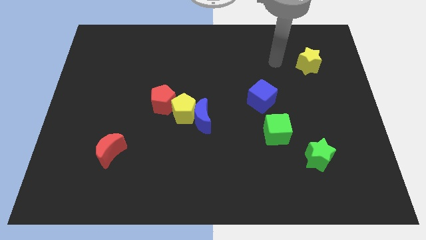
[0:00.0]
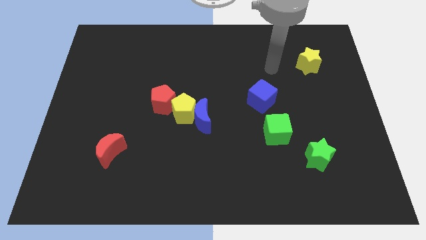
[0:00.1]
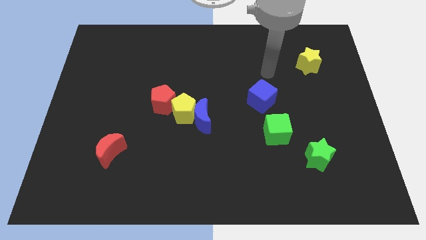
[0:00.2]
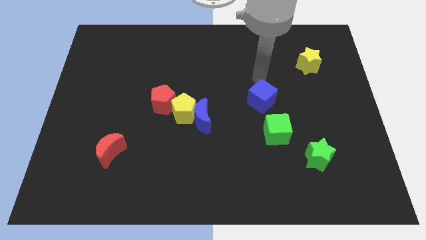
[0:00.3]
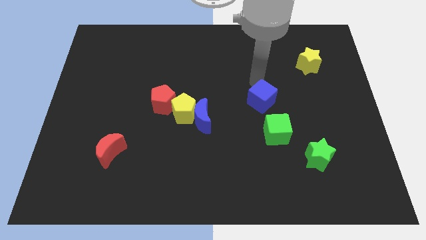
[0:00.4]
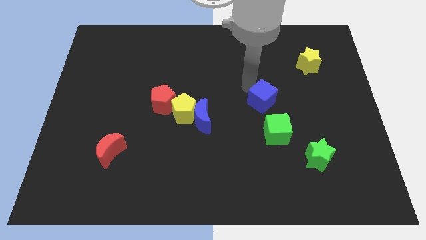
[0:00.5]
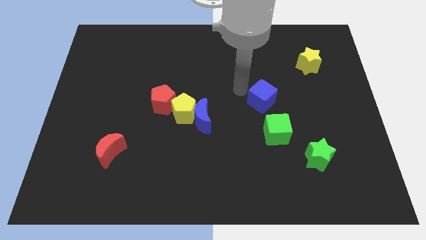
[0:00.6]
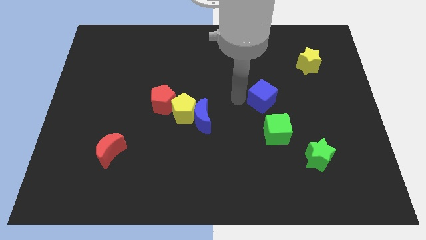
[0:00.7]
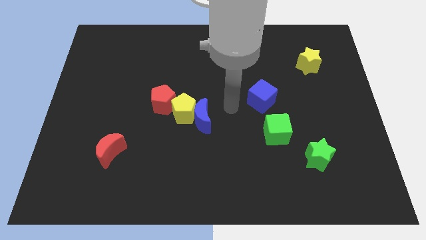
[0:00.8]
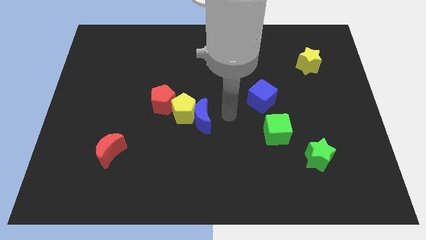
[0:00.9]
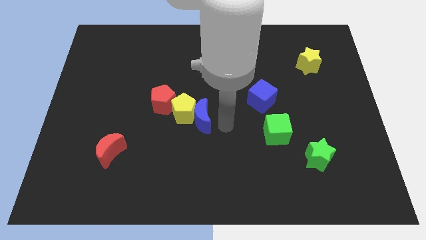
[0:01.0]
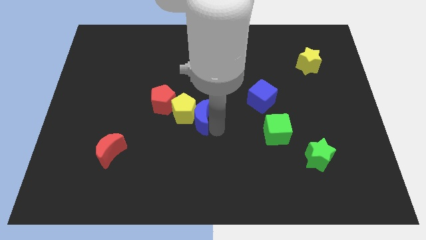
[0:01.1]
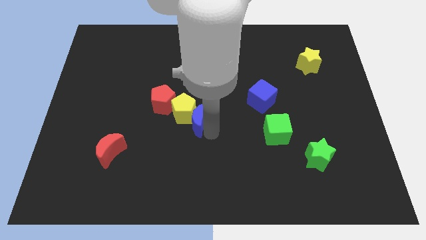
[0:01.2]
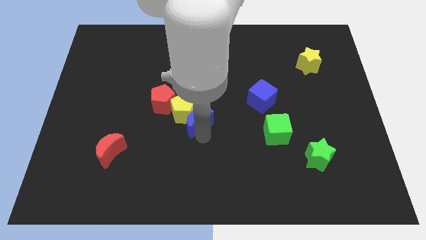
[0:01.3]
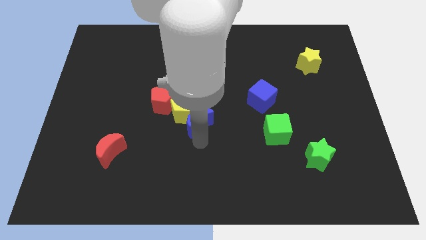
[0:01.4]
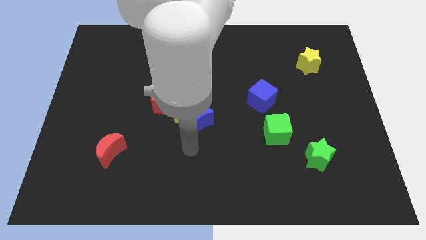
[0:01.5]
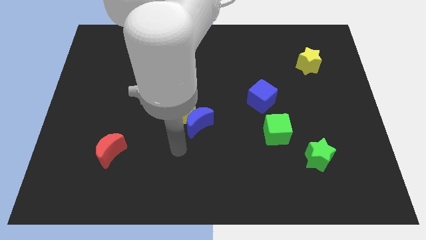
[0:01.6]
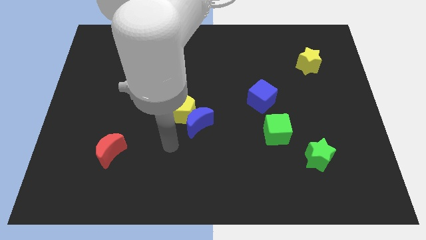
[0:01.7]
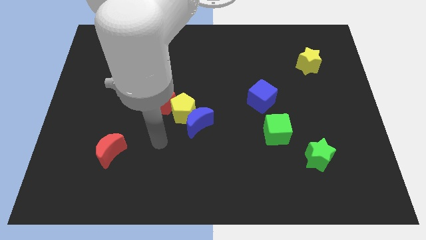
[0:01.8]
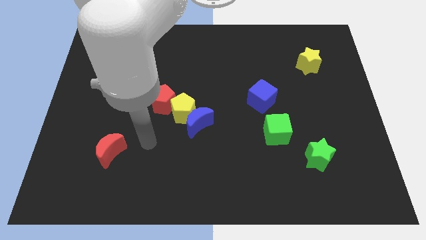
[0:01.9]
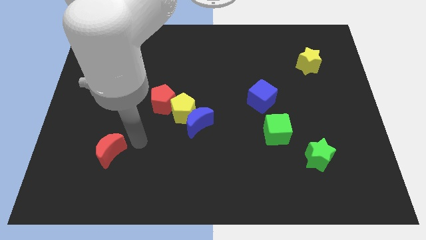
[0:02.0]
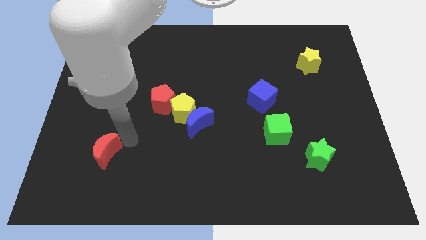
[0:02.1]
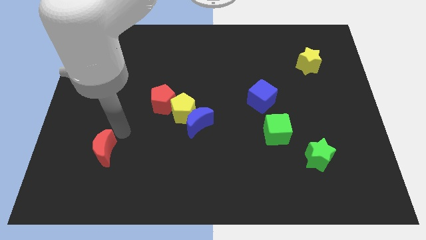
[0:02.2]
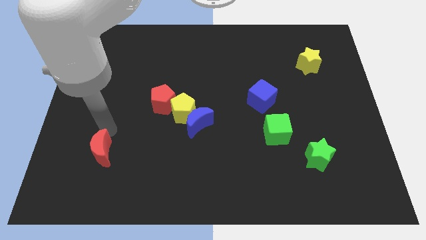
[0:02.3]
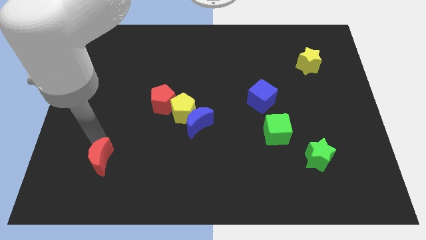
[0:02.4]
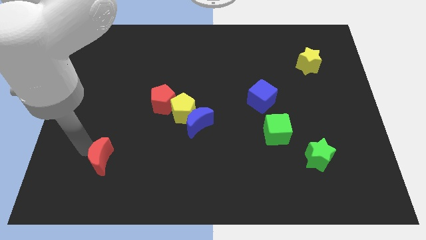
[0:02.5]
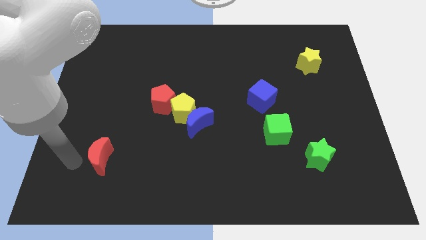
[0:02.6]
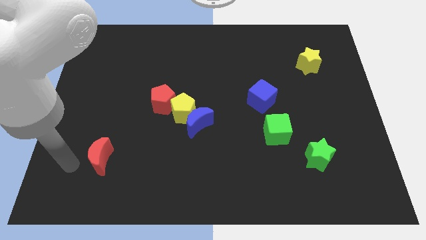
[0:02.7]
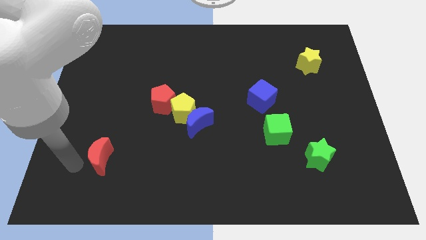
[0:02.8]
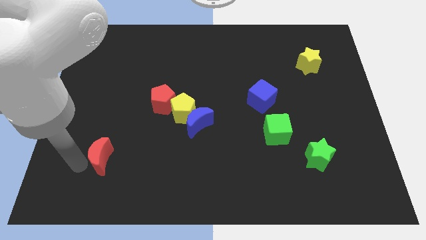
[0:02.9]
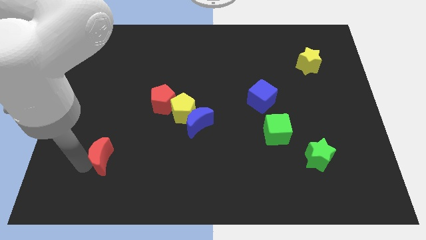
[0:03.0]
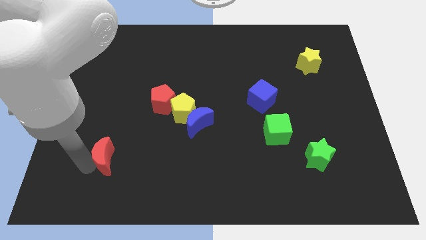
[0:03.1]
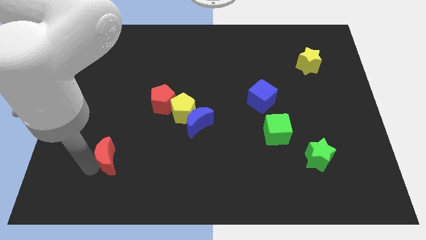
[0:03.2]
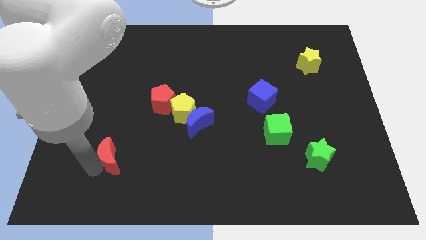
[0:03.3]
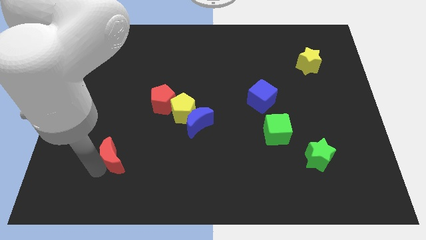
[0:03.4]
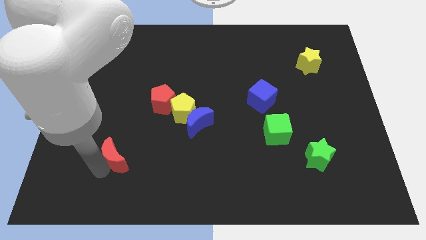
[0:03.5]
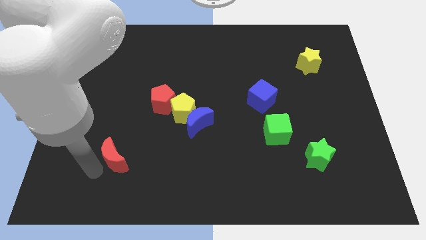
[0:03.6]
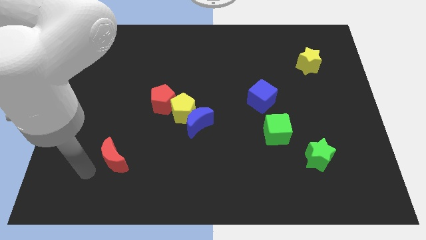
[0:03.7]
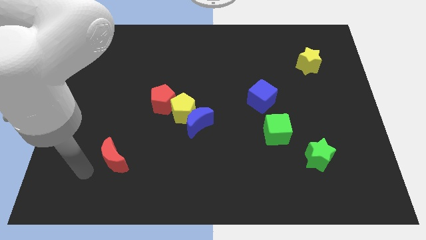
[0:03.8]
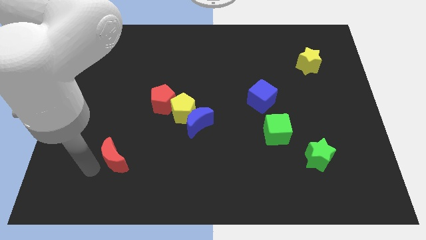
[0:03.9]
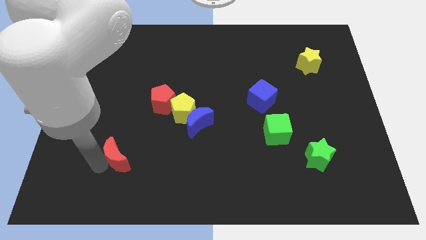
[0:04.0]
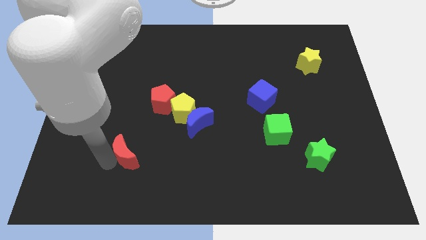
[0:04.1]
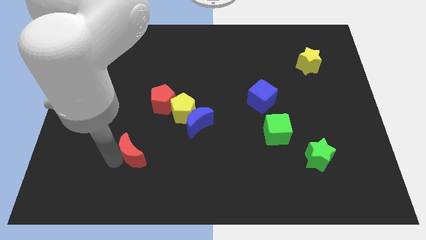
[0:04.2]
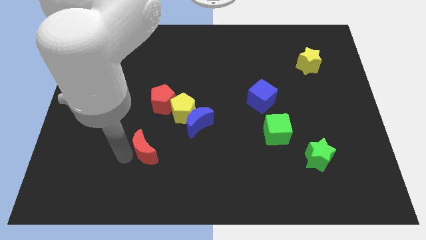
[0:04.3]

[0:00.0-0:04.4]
move the red moon to the right somewhat

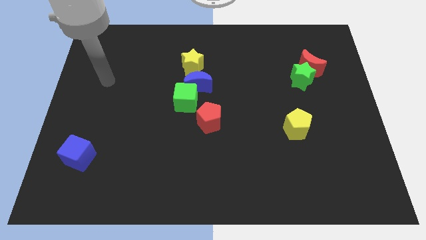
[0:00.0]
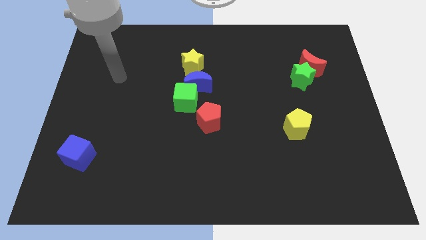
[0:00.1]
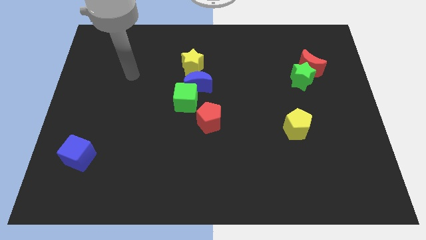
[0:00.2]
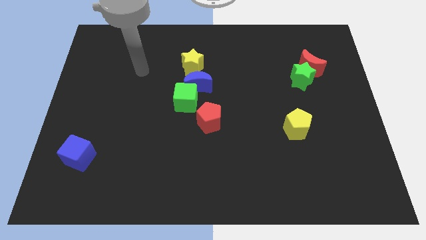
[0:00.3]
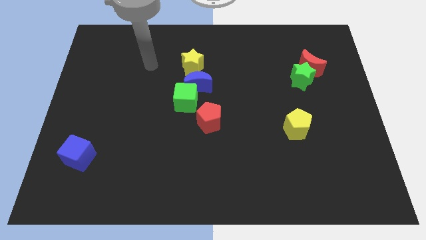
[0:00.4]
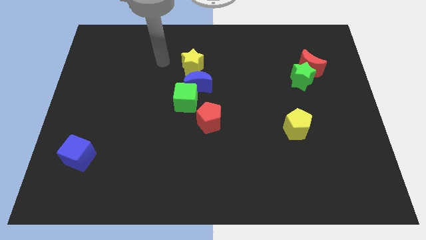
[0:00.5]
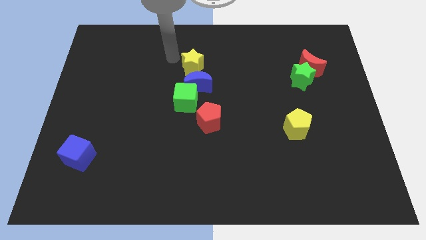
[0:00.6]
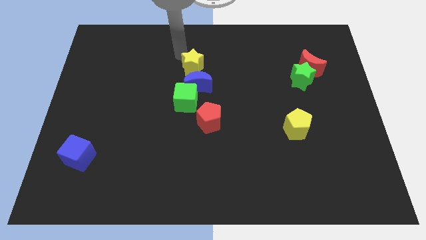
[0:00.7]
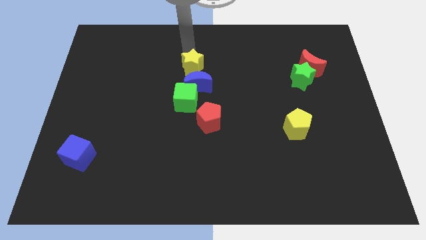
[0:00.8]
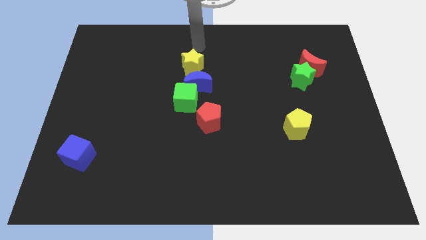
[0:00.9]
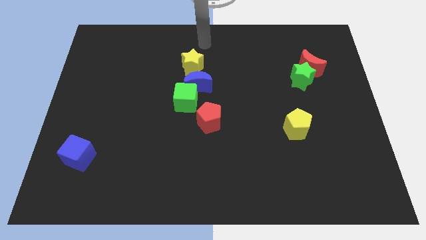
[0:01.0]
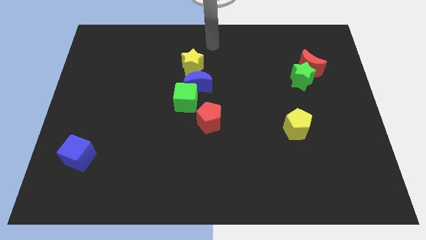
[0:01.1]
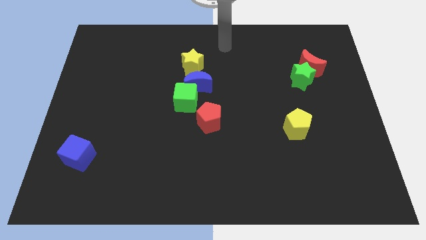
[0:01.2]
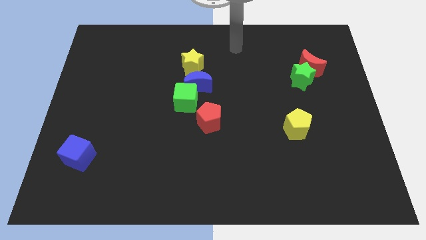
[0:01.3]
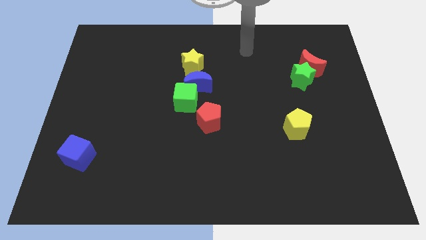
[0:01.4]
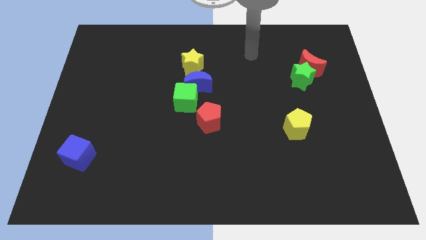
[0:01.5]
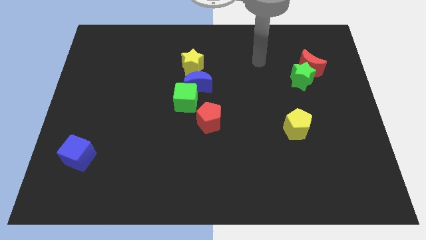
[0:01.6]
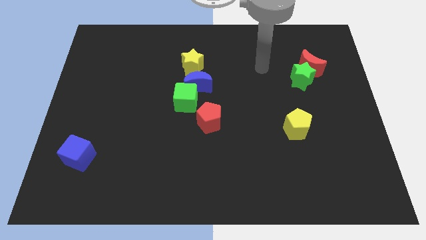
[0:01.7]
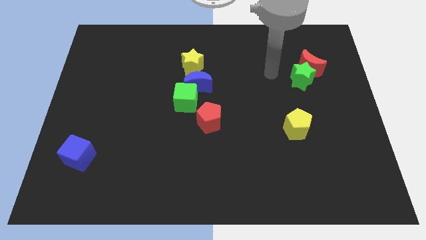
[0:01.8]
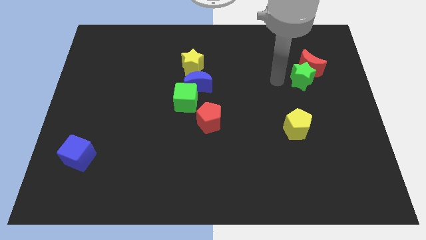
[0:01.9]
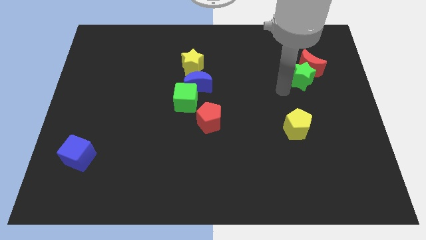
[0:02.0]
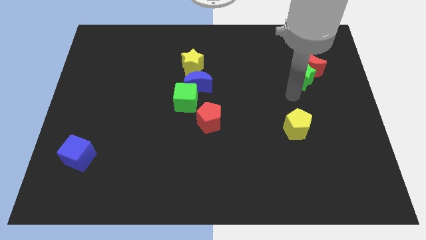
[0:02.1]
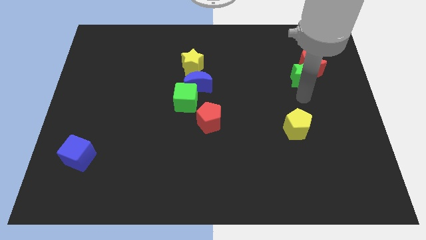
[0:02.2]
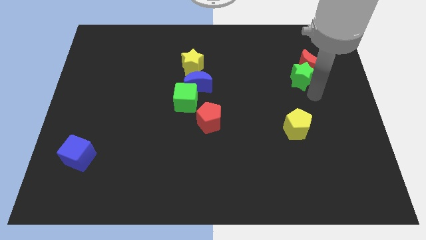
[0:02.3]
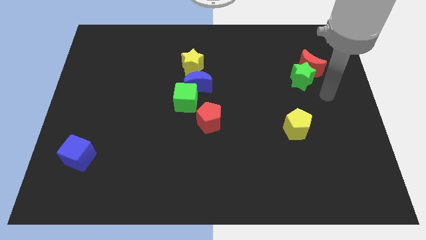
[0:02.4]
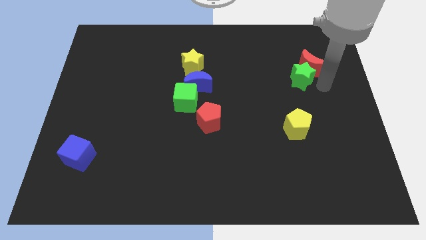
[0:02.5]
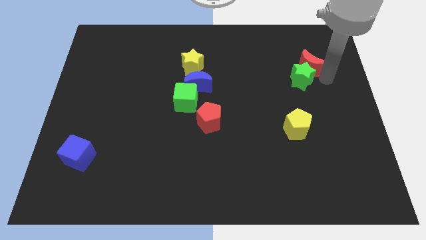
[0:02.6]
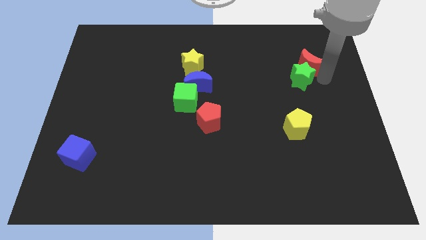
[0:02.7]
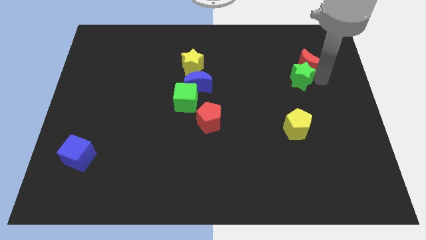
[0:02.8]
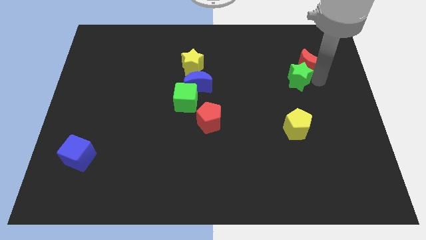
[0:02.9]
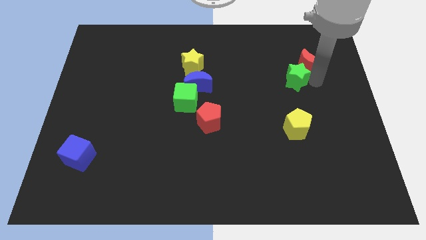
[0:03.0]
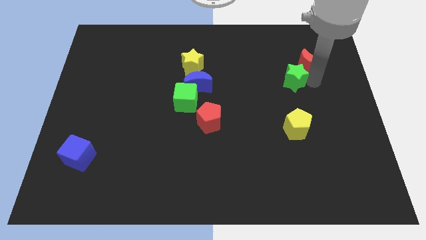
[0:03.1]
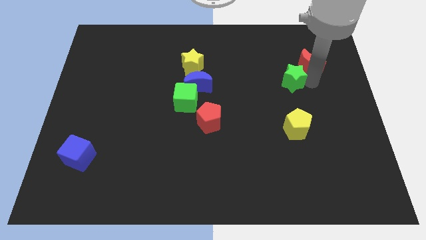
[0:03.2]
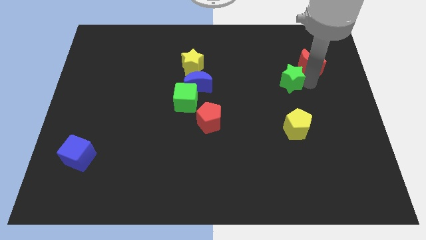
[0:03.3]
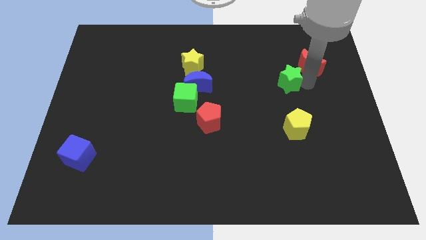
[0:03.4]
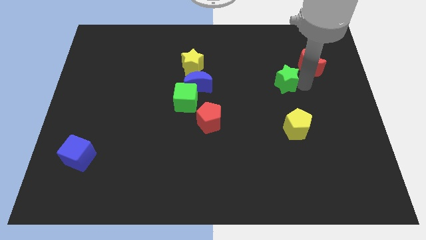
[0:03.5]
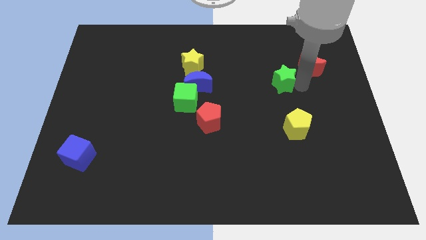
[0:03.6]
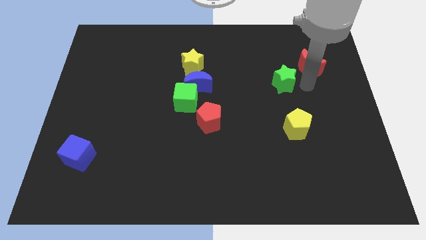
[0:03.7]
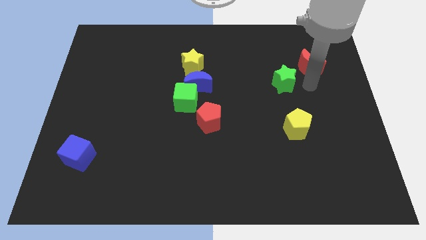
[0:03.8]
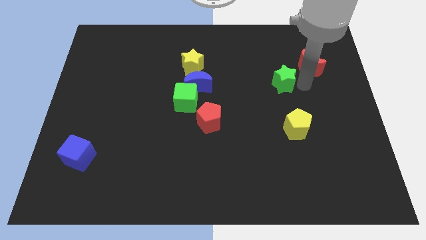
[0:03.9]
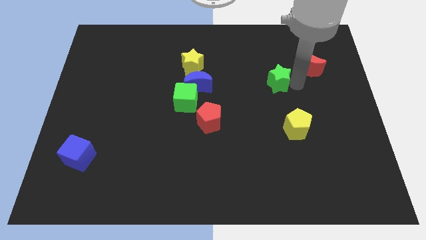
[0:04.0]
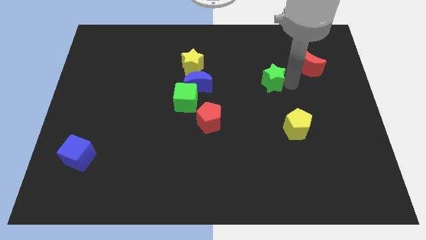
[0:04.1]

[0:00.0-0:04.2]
push the green star left somewhat
